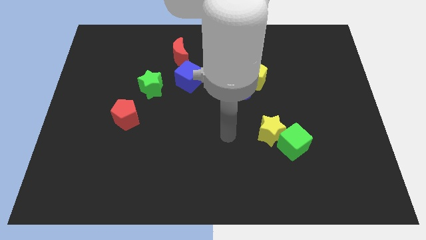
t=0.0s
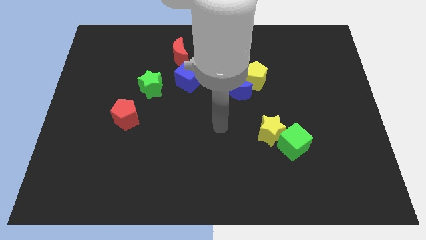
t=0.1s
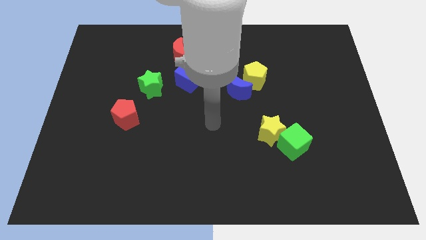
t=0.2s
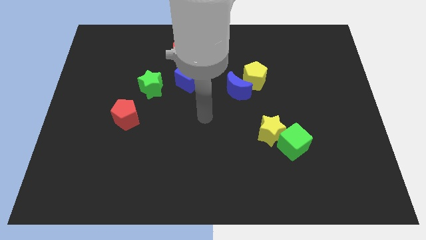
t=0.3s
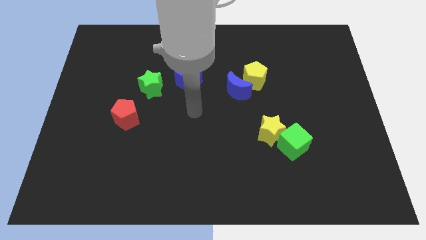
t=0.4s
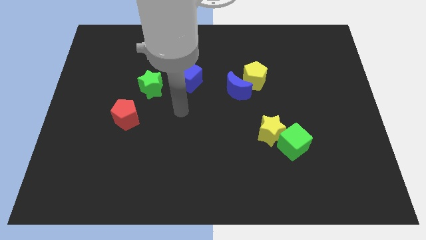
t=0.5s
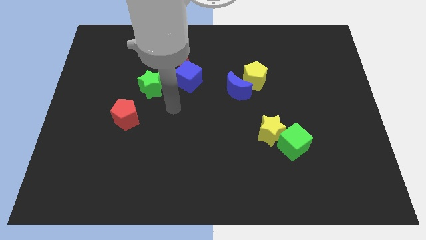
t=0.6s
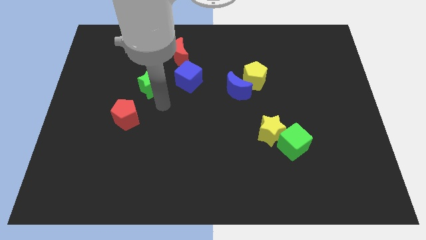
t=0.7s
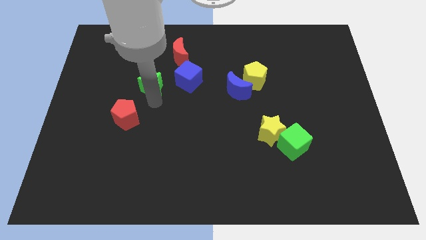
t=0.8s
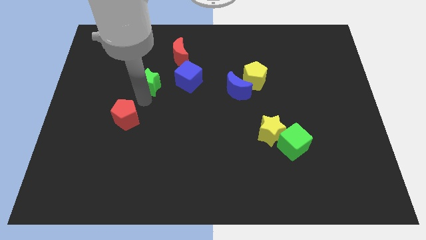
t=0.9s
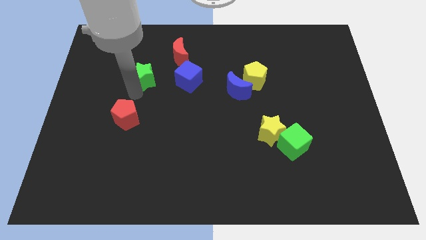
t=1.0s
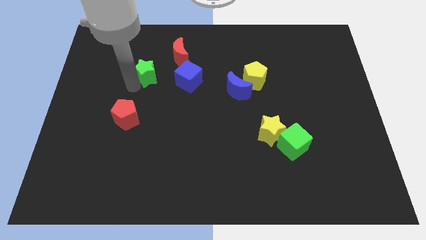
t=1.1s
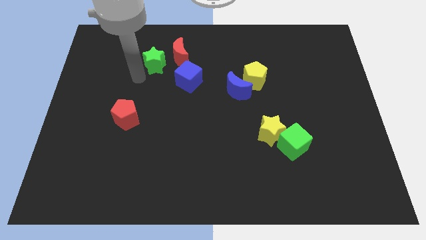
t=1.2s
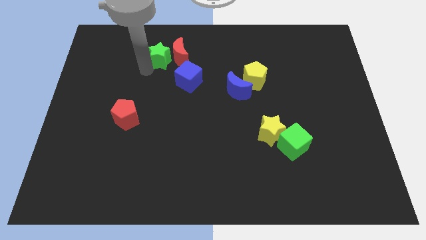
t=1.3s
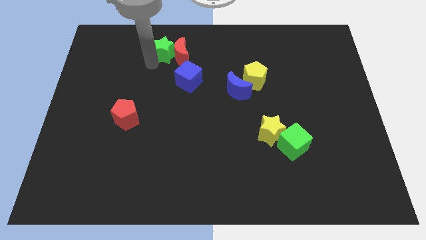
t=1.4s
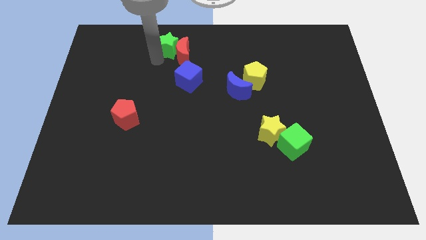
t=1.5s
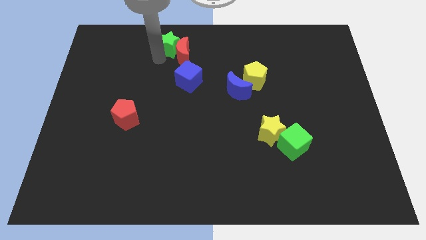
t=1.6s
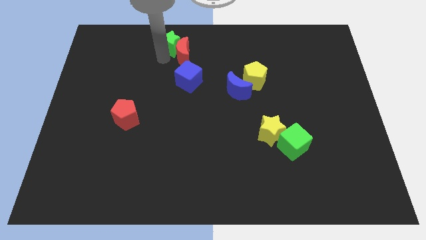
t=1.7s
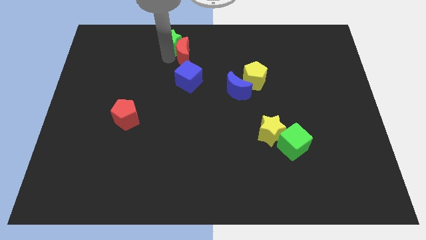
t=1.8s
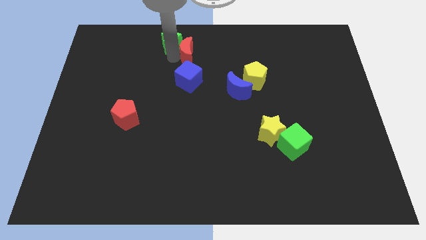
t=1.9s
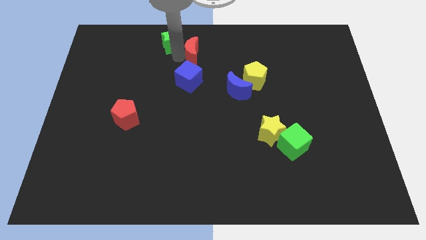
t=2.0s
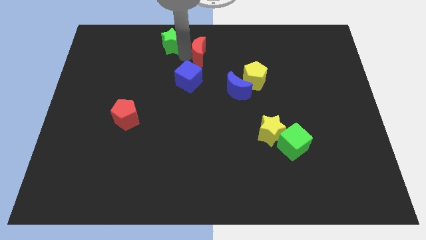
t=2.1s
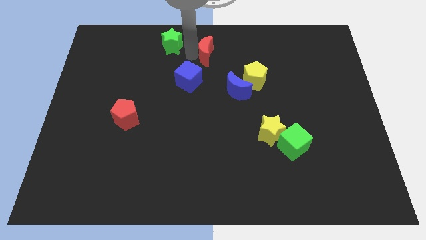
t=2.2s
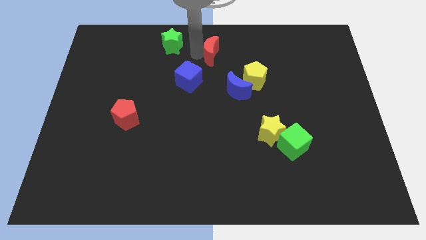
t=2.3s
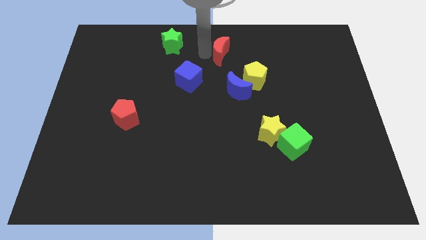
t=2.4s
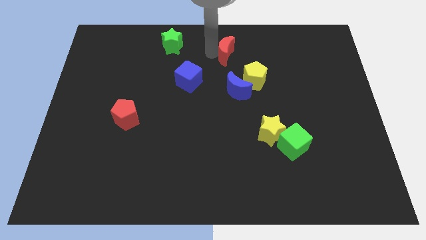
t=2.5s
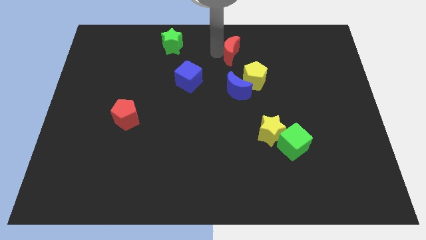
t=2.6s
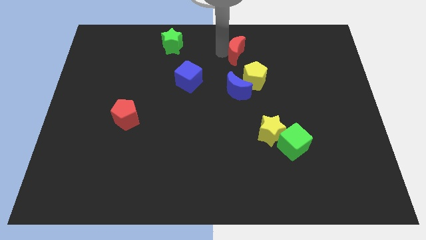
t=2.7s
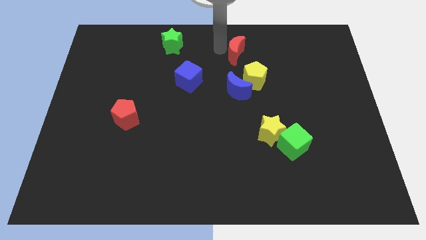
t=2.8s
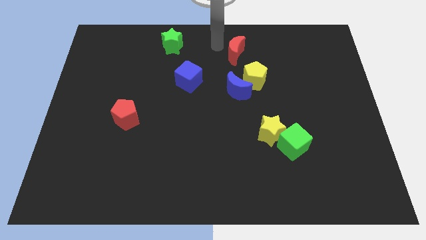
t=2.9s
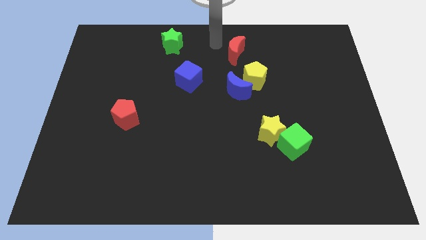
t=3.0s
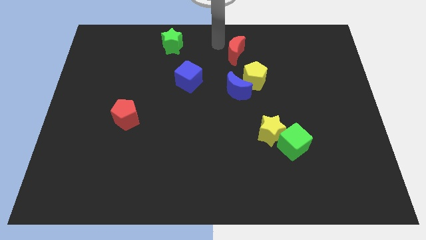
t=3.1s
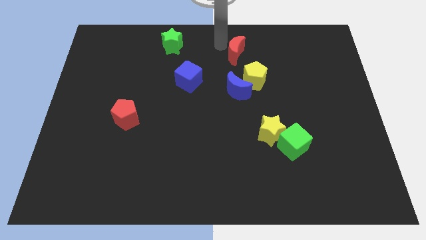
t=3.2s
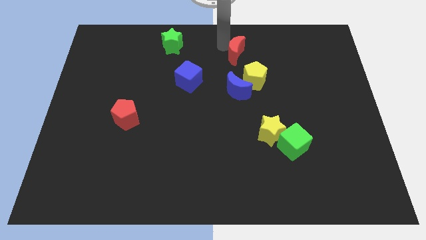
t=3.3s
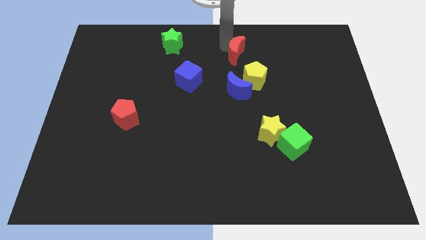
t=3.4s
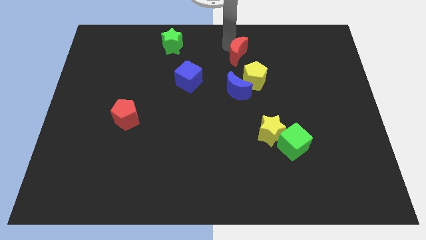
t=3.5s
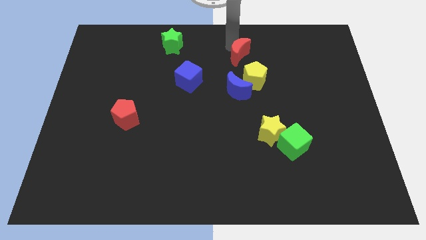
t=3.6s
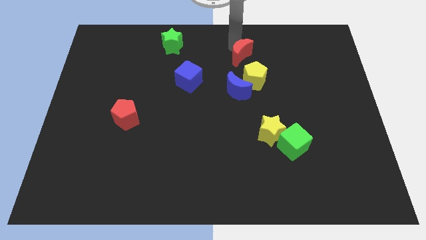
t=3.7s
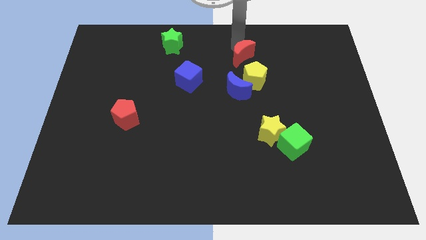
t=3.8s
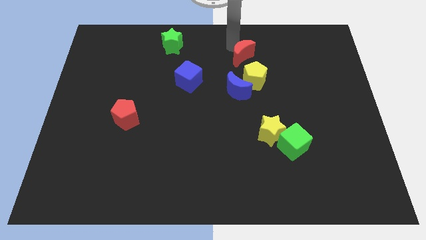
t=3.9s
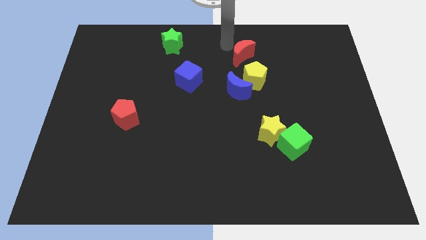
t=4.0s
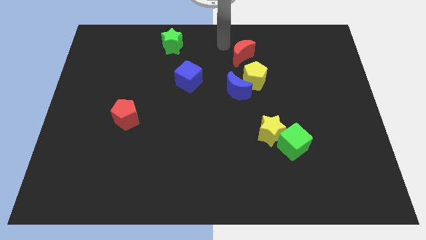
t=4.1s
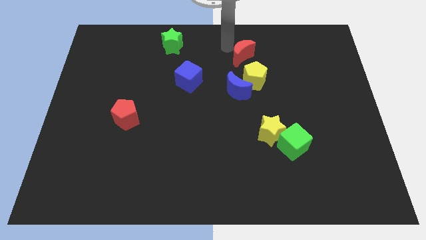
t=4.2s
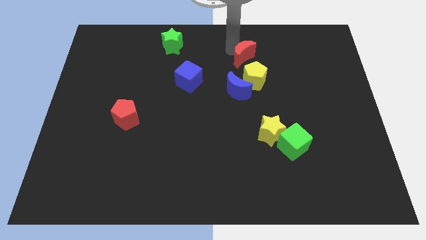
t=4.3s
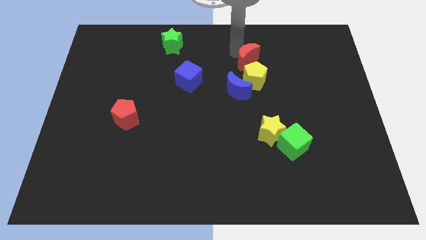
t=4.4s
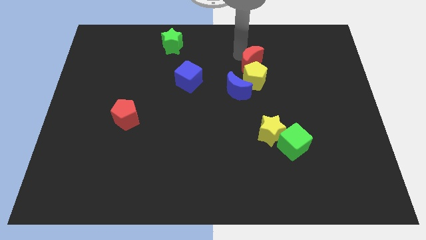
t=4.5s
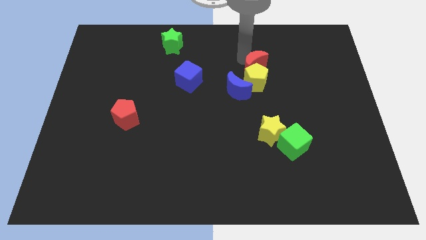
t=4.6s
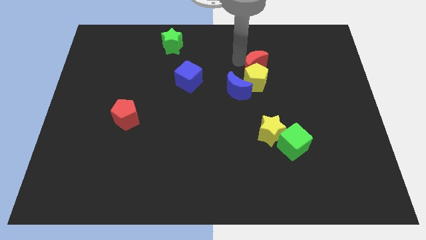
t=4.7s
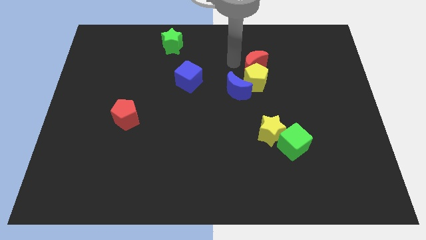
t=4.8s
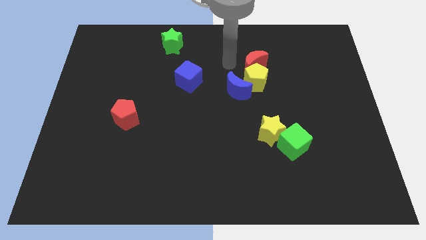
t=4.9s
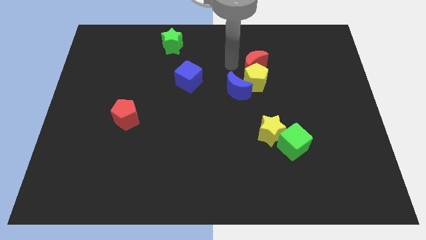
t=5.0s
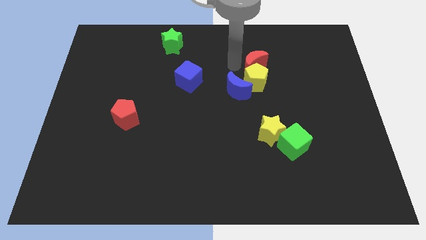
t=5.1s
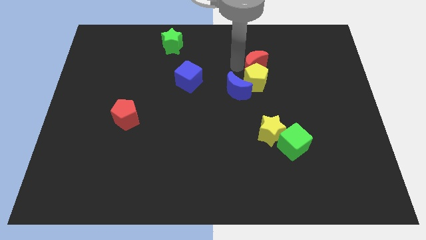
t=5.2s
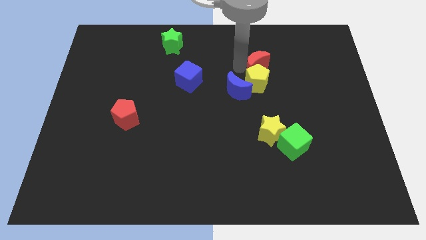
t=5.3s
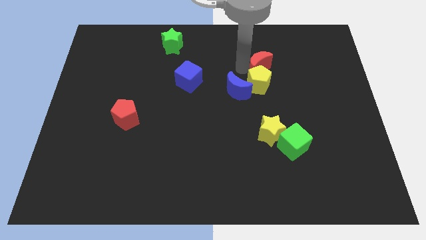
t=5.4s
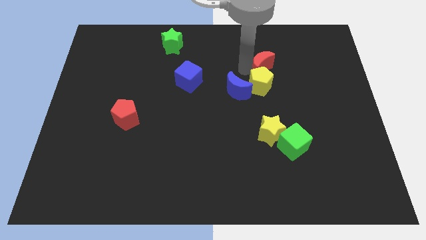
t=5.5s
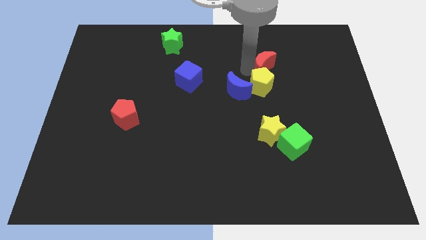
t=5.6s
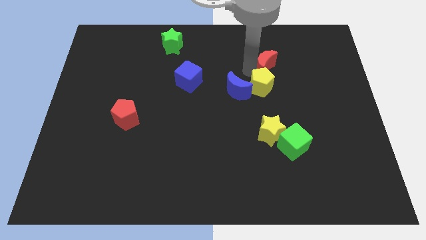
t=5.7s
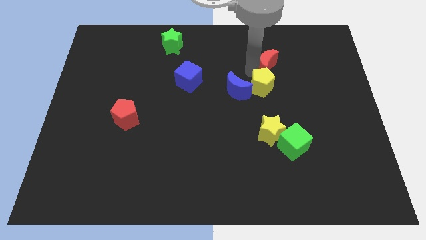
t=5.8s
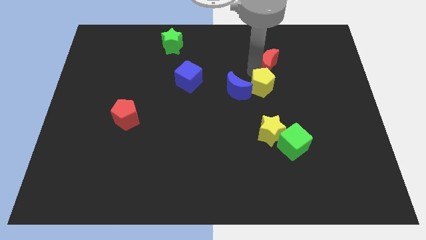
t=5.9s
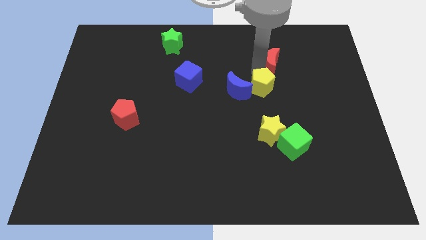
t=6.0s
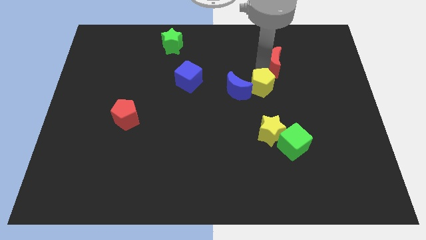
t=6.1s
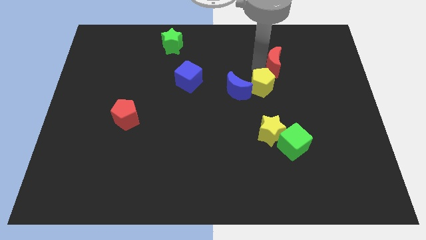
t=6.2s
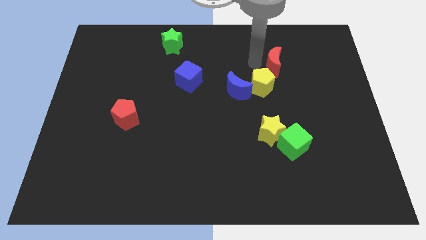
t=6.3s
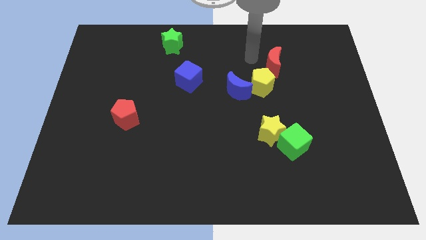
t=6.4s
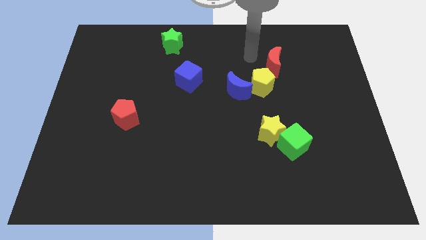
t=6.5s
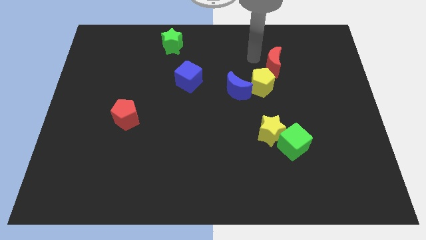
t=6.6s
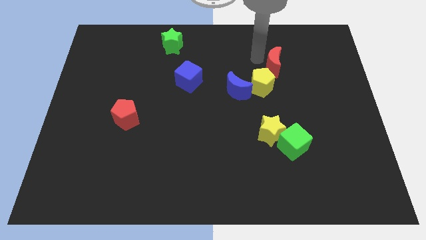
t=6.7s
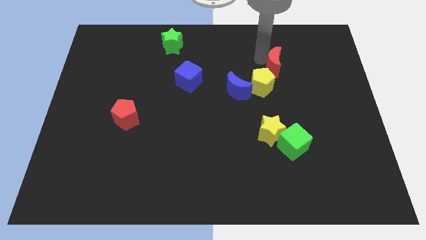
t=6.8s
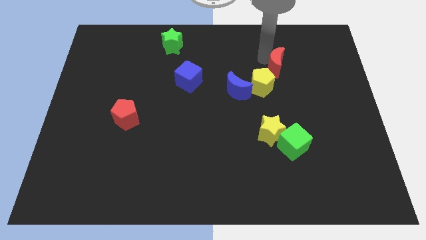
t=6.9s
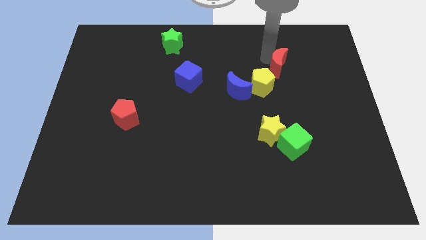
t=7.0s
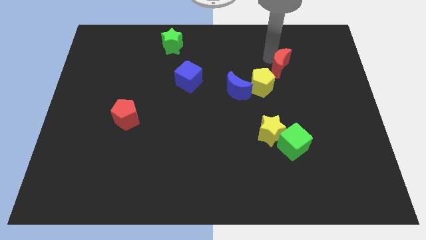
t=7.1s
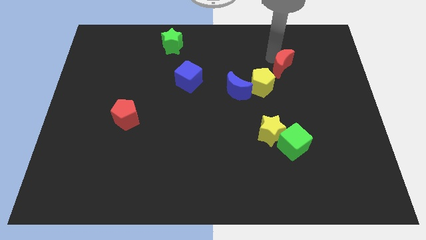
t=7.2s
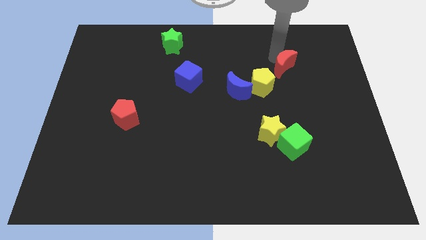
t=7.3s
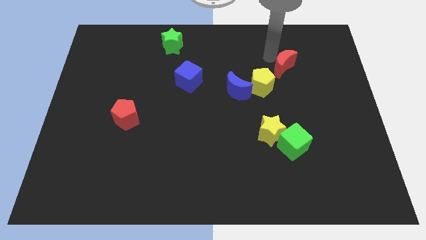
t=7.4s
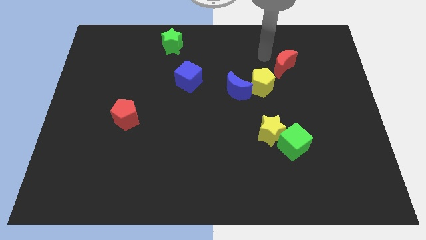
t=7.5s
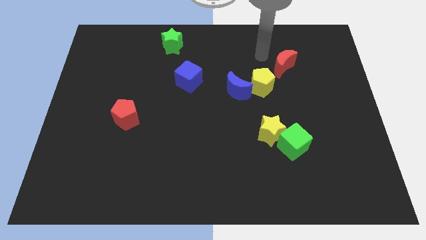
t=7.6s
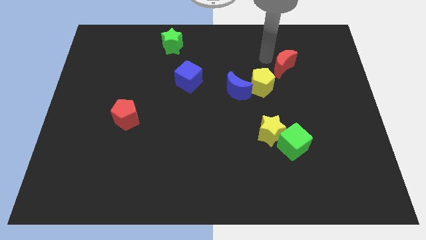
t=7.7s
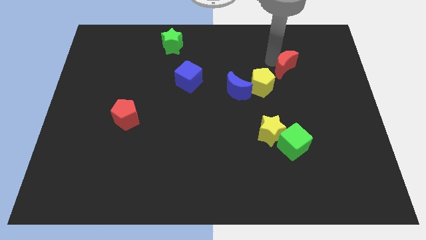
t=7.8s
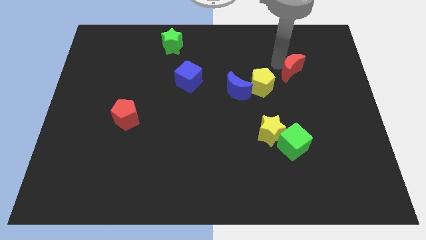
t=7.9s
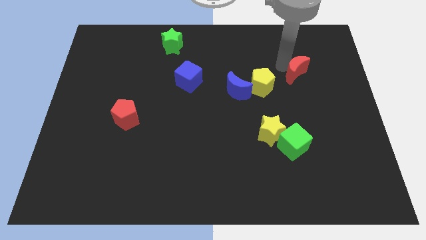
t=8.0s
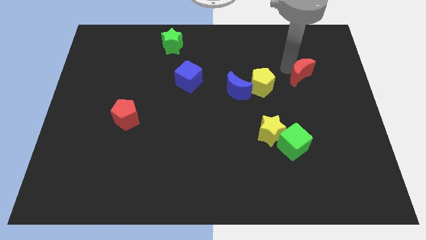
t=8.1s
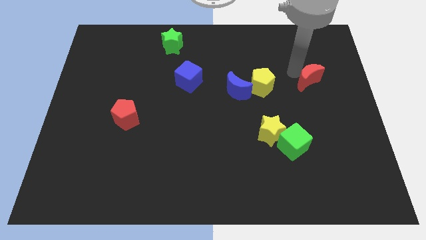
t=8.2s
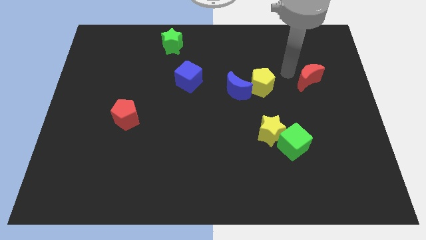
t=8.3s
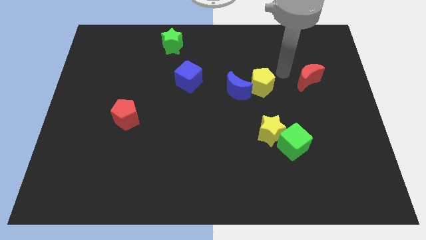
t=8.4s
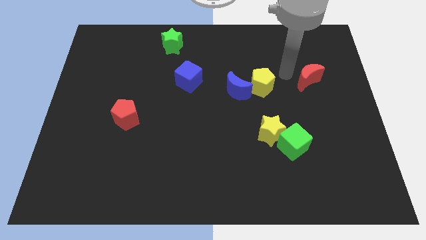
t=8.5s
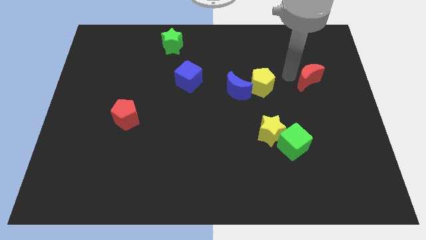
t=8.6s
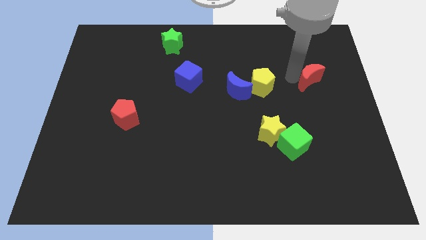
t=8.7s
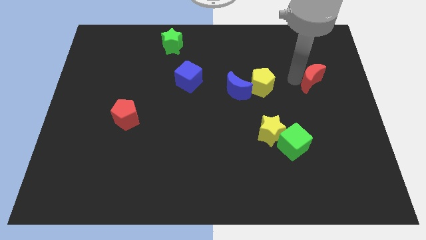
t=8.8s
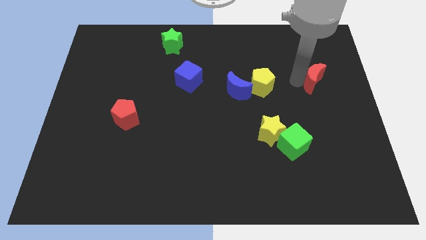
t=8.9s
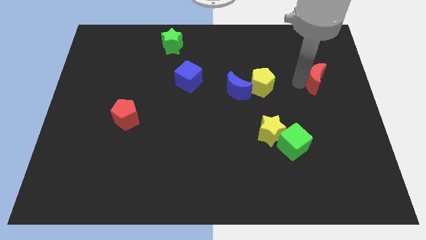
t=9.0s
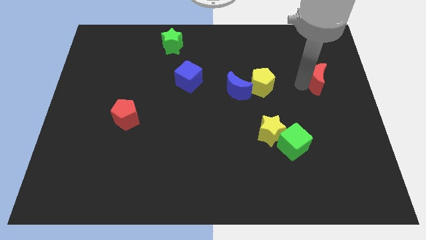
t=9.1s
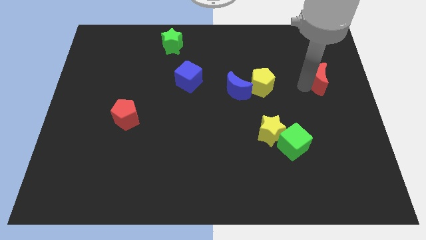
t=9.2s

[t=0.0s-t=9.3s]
move the red moon to the right side of the board
